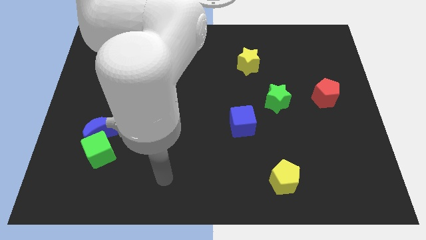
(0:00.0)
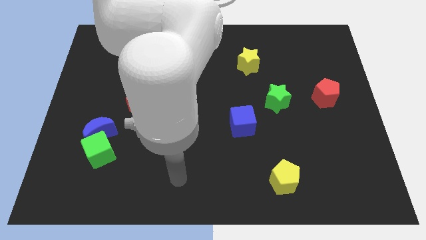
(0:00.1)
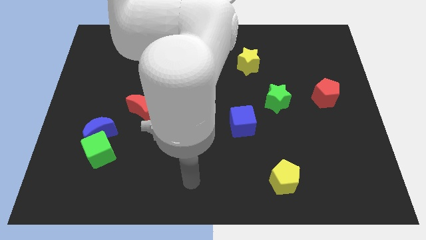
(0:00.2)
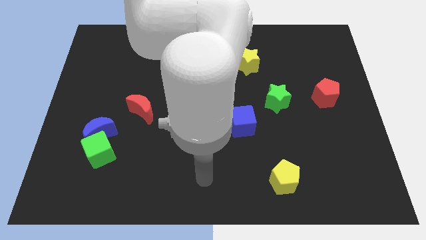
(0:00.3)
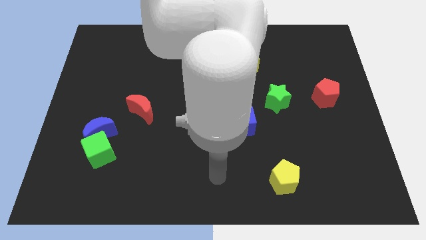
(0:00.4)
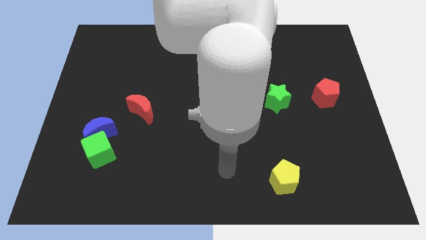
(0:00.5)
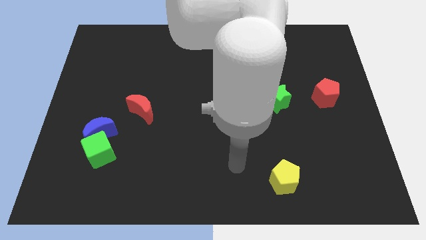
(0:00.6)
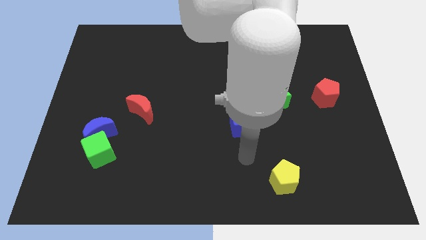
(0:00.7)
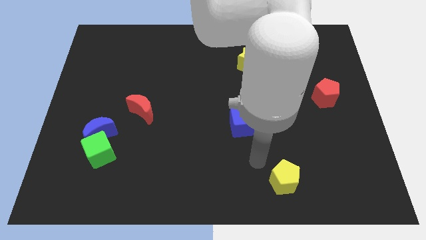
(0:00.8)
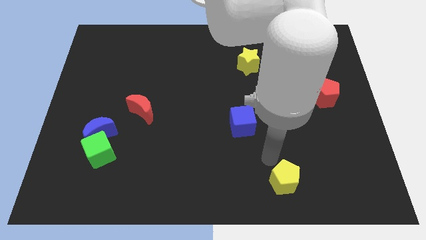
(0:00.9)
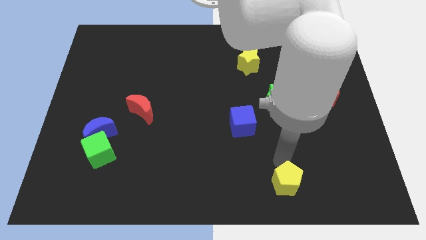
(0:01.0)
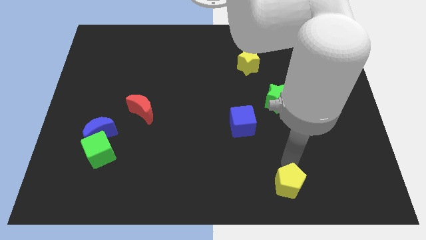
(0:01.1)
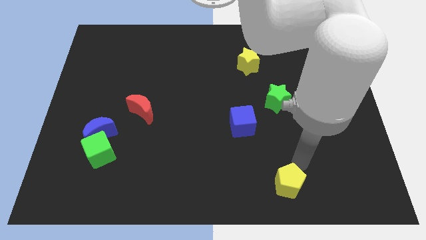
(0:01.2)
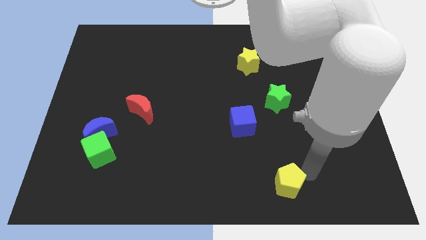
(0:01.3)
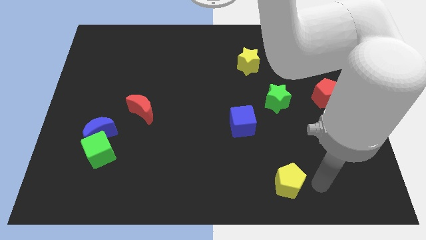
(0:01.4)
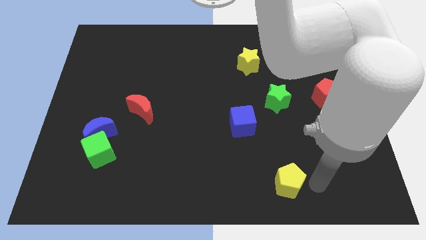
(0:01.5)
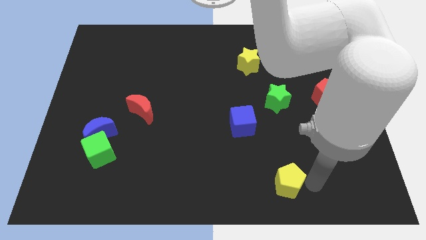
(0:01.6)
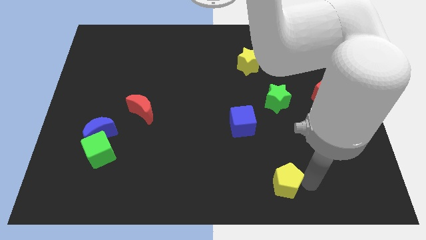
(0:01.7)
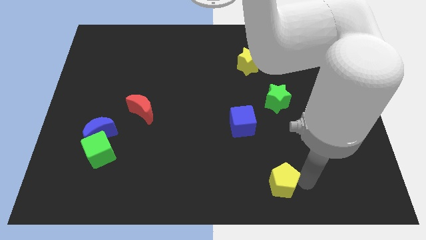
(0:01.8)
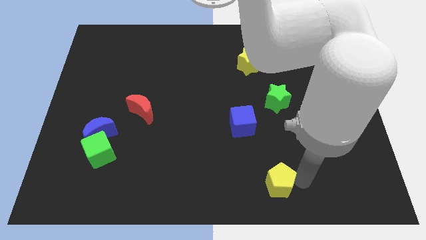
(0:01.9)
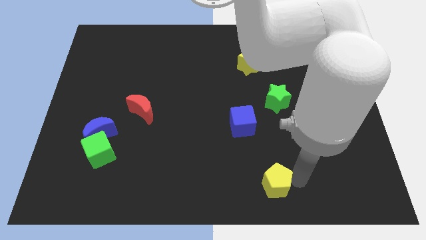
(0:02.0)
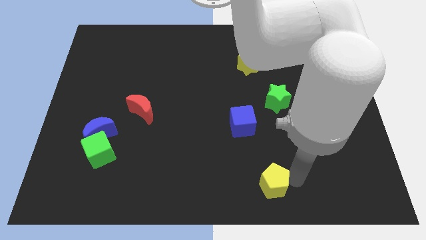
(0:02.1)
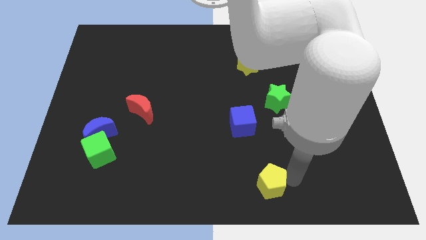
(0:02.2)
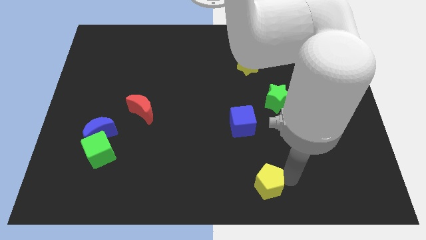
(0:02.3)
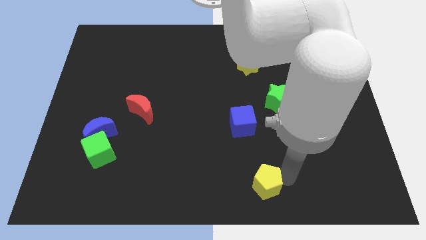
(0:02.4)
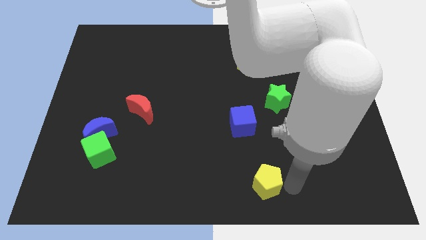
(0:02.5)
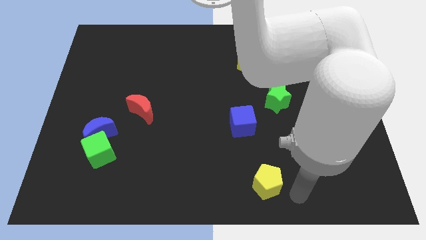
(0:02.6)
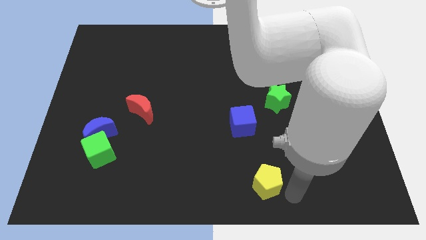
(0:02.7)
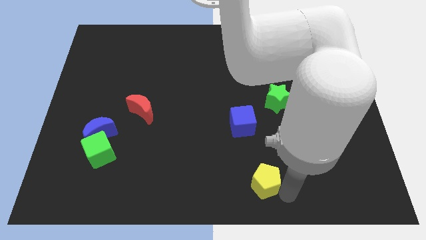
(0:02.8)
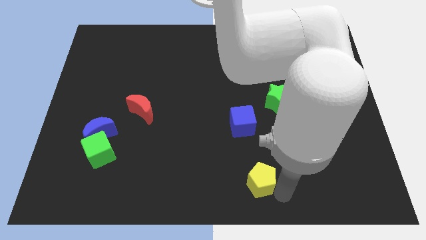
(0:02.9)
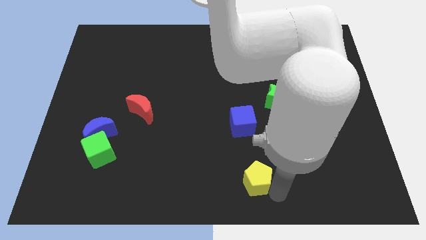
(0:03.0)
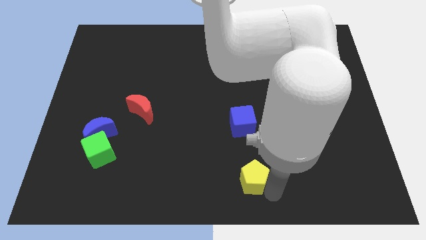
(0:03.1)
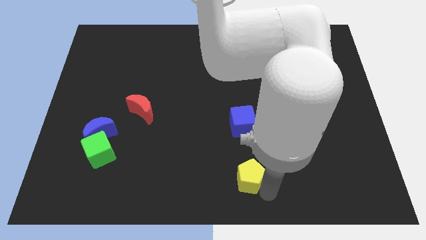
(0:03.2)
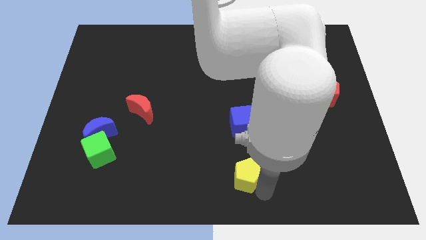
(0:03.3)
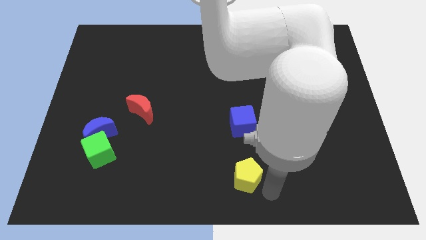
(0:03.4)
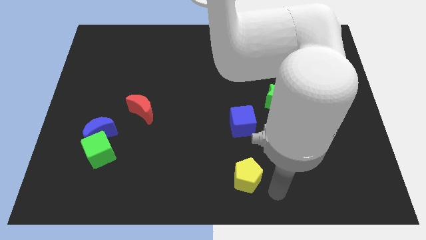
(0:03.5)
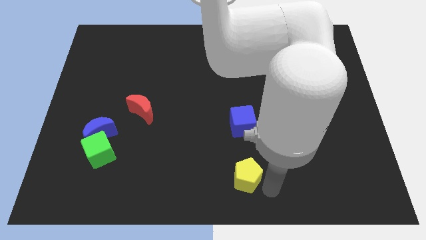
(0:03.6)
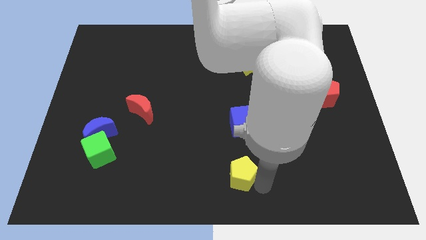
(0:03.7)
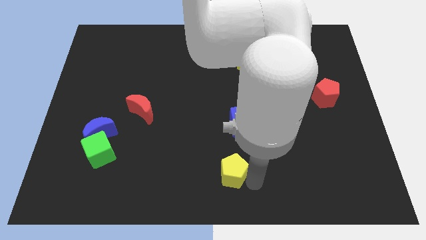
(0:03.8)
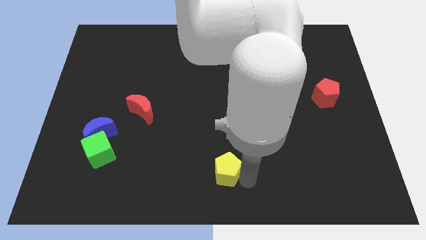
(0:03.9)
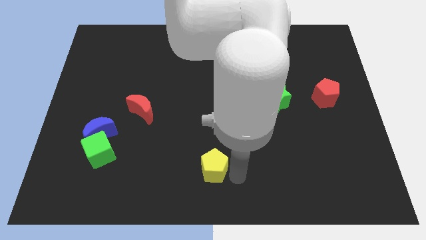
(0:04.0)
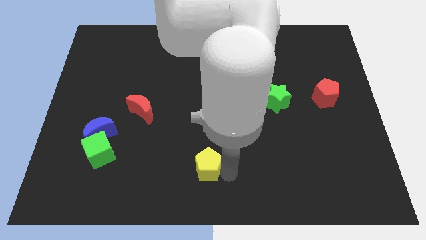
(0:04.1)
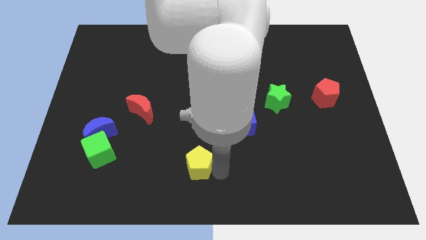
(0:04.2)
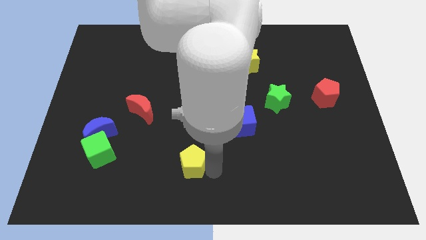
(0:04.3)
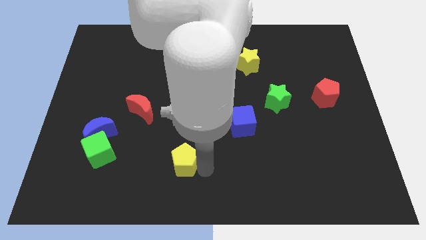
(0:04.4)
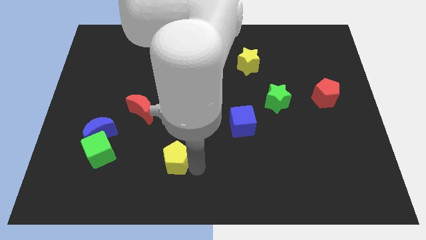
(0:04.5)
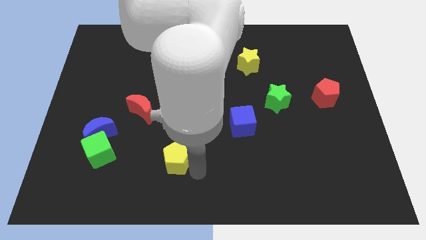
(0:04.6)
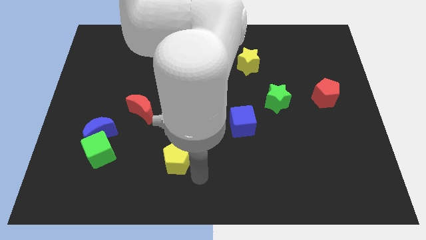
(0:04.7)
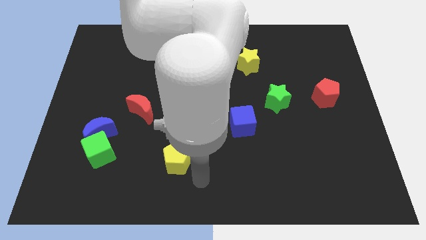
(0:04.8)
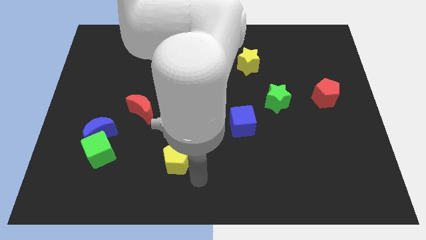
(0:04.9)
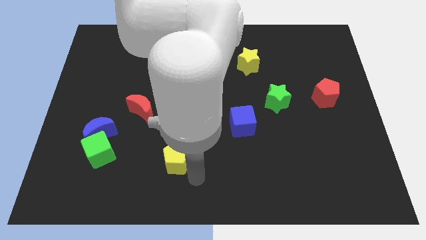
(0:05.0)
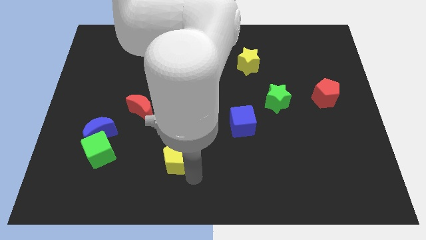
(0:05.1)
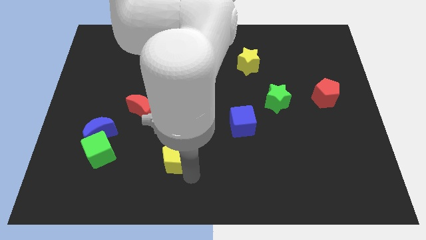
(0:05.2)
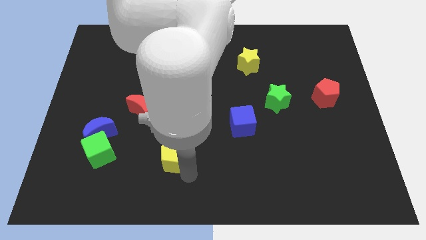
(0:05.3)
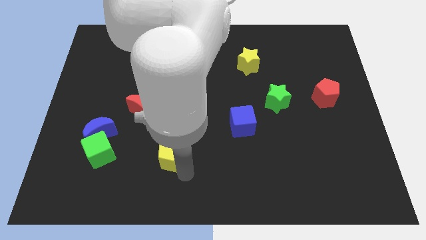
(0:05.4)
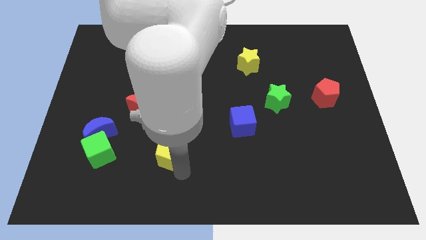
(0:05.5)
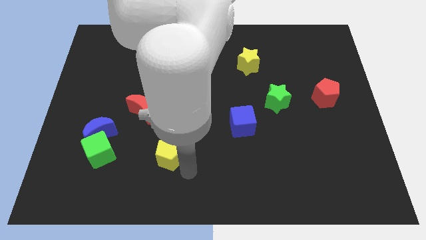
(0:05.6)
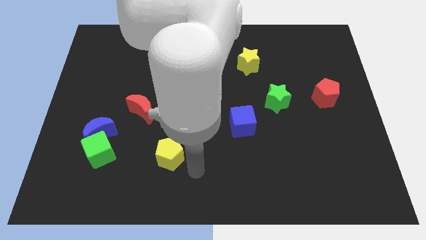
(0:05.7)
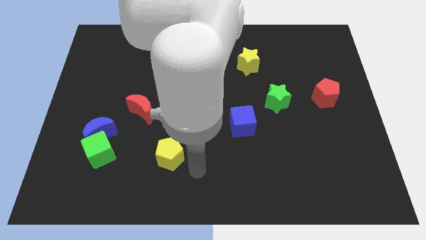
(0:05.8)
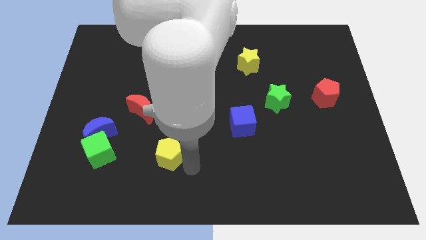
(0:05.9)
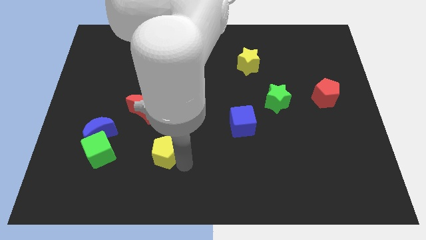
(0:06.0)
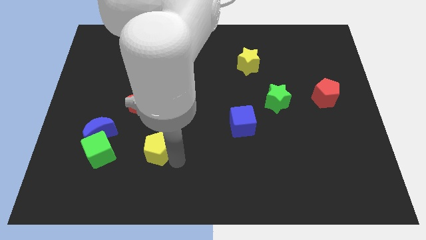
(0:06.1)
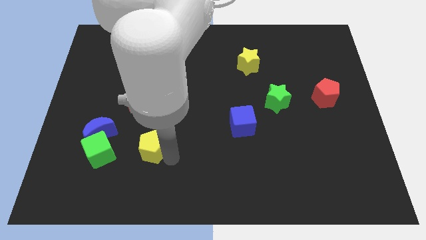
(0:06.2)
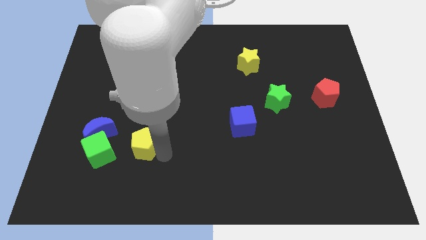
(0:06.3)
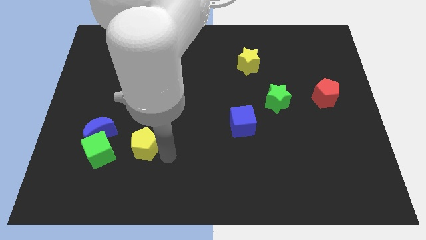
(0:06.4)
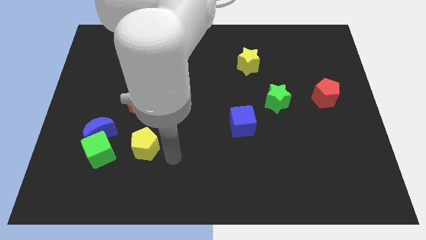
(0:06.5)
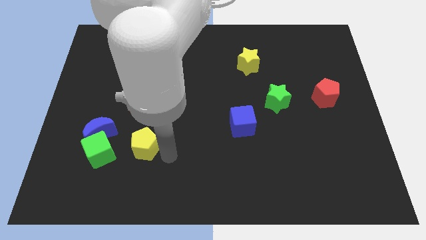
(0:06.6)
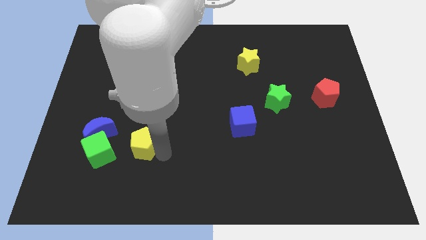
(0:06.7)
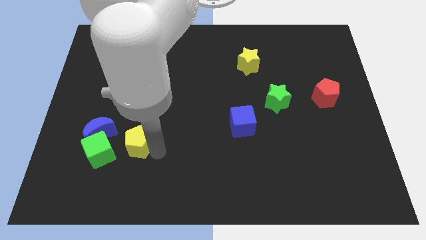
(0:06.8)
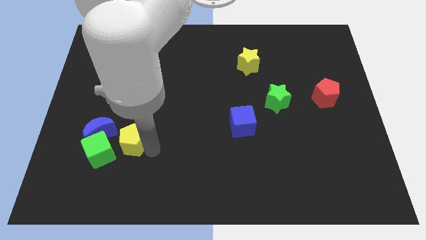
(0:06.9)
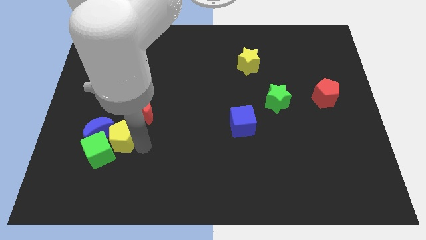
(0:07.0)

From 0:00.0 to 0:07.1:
push the yellow pentagon to the blue moon
